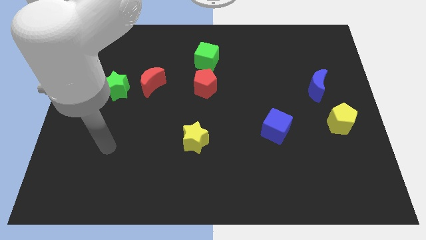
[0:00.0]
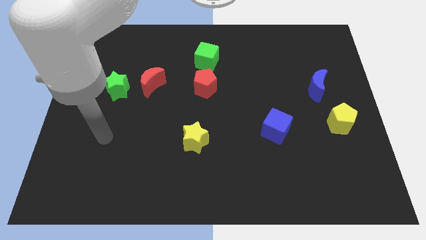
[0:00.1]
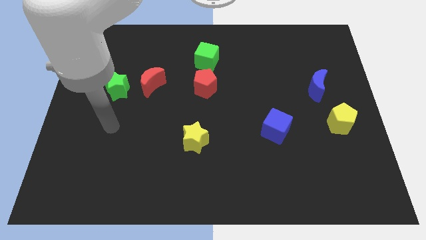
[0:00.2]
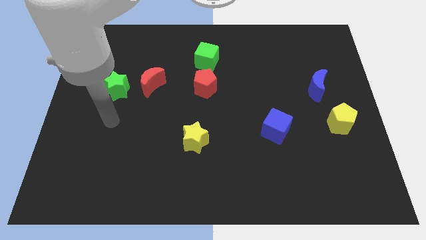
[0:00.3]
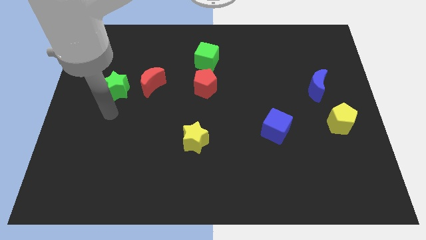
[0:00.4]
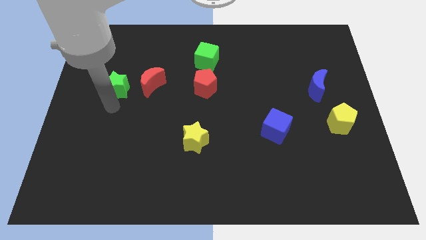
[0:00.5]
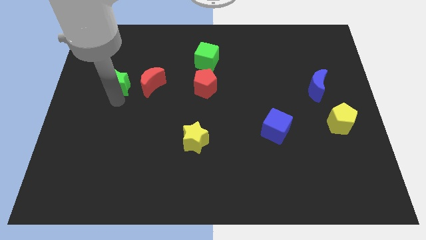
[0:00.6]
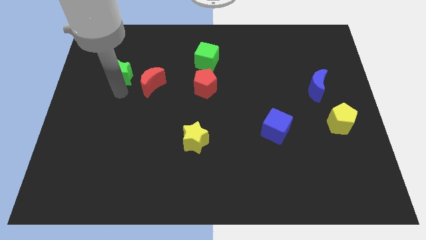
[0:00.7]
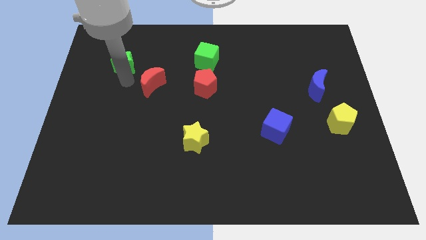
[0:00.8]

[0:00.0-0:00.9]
separate the red moon from the green star

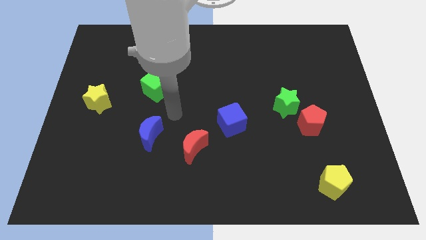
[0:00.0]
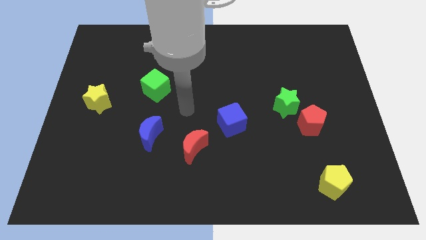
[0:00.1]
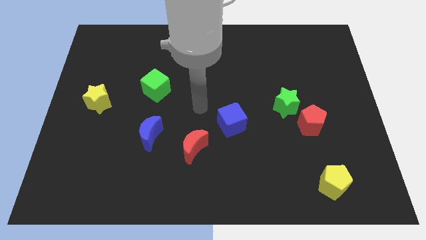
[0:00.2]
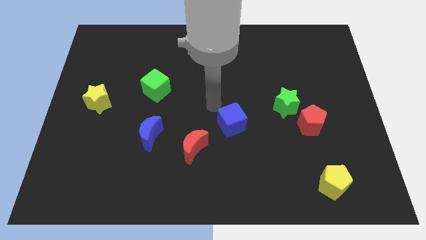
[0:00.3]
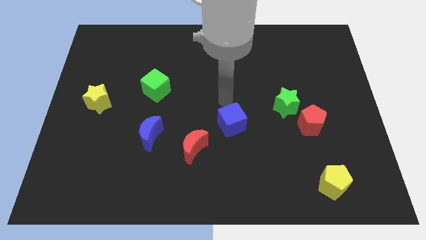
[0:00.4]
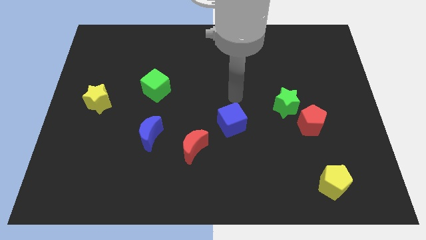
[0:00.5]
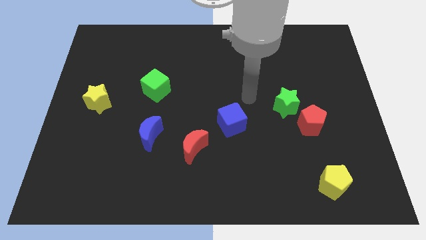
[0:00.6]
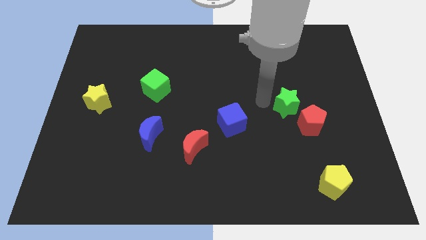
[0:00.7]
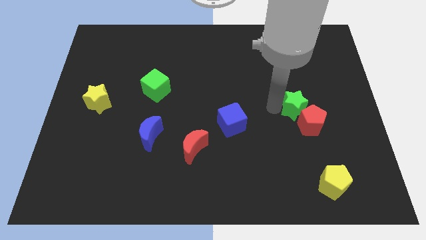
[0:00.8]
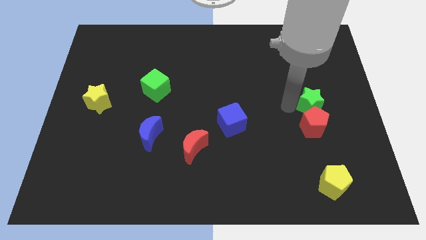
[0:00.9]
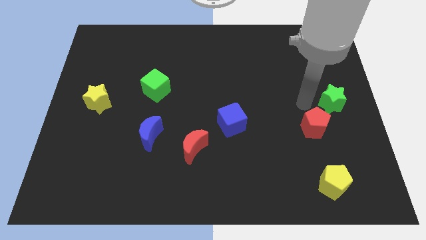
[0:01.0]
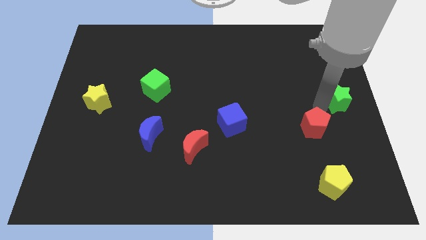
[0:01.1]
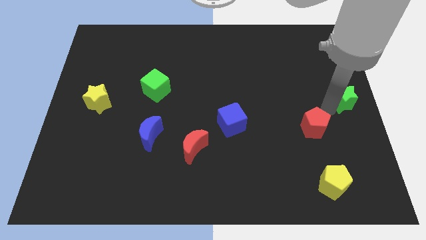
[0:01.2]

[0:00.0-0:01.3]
move the red pentagon away from the green star

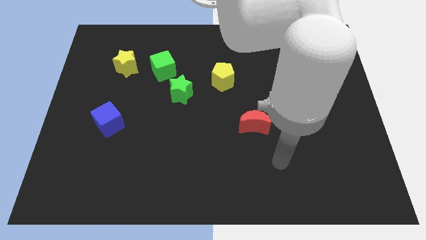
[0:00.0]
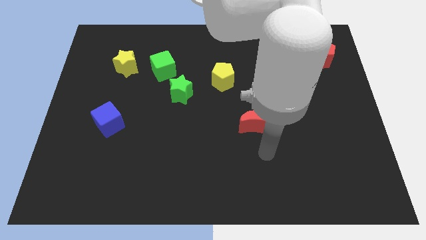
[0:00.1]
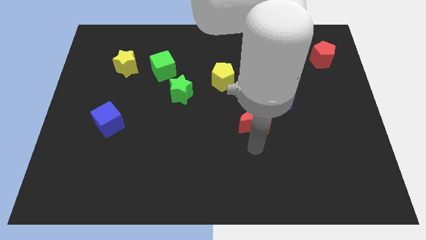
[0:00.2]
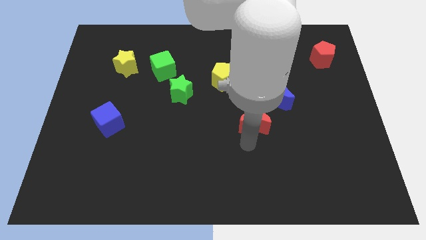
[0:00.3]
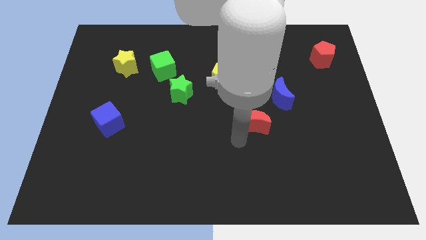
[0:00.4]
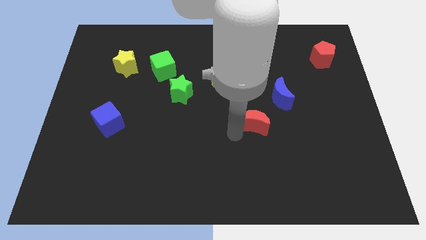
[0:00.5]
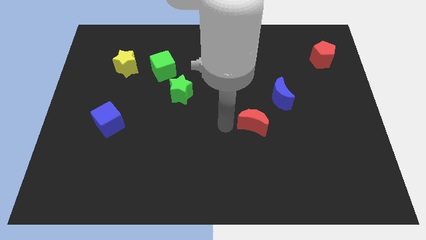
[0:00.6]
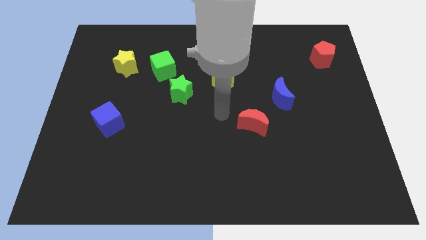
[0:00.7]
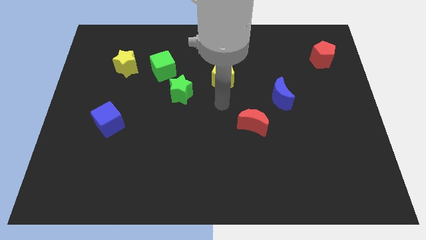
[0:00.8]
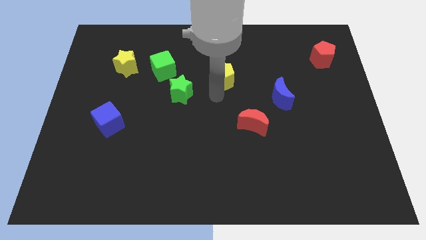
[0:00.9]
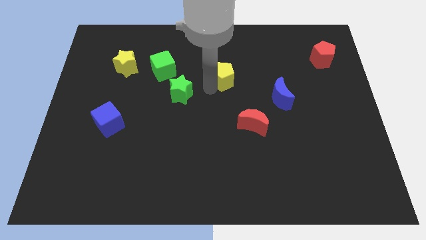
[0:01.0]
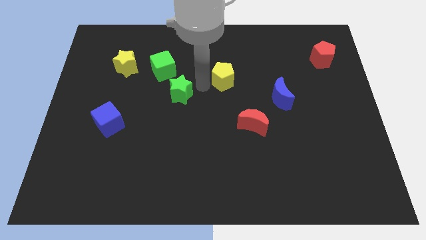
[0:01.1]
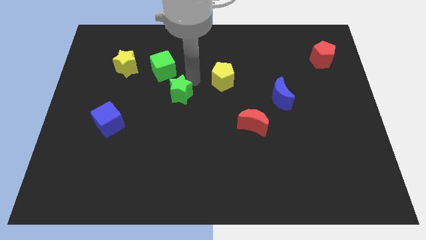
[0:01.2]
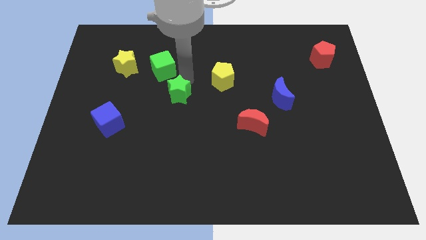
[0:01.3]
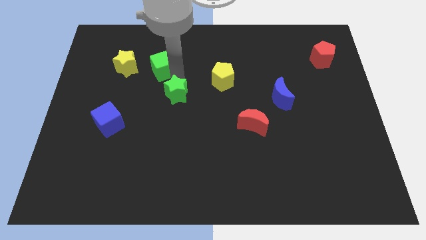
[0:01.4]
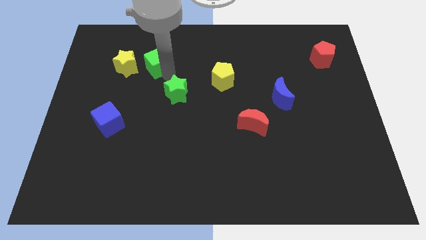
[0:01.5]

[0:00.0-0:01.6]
separate the green star from the green cube

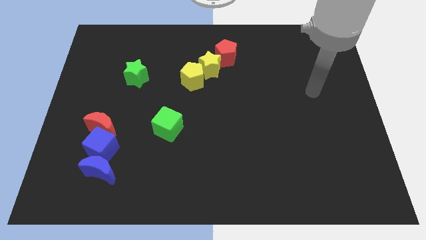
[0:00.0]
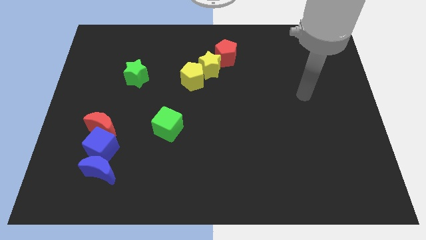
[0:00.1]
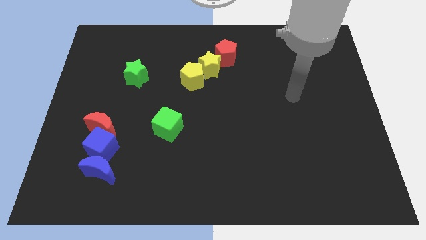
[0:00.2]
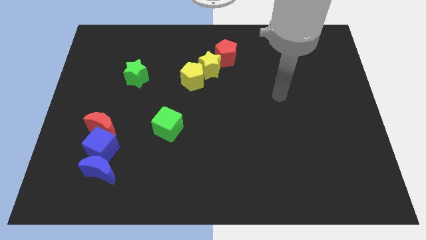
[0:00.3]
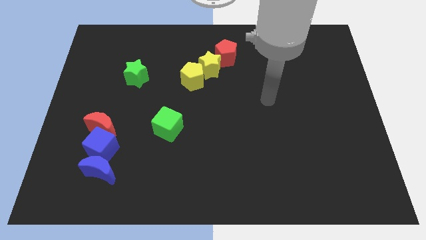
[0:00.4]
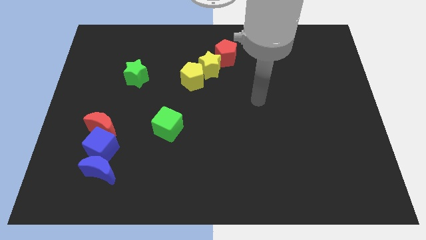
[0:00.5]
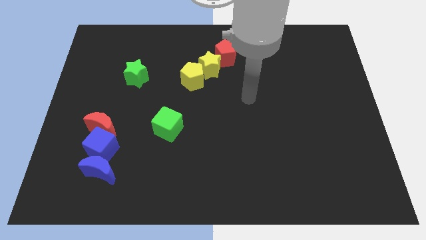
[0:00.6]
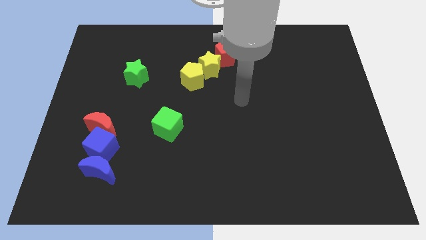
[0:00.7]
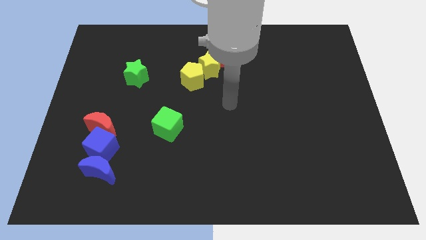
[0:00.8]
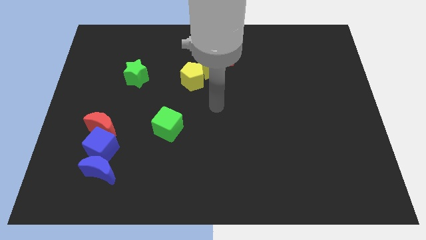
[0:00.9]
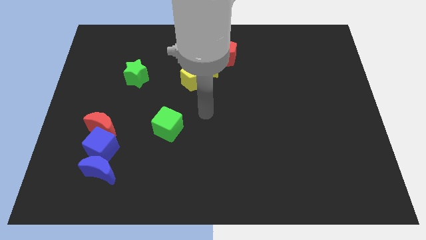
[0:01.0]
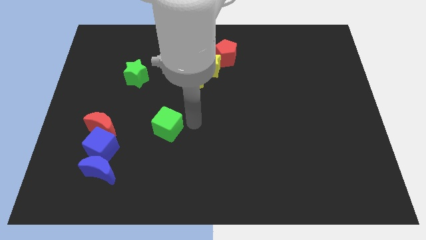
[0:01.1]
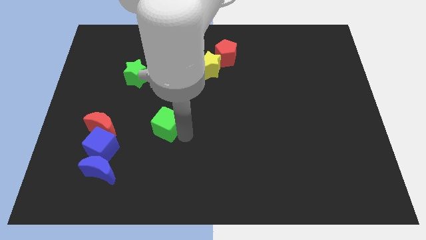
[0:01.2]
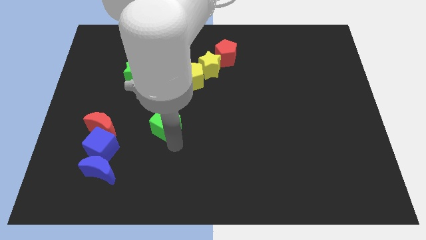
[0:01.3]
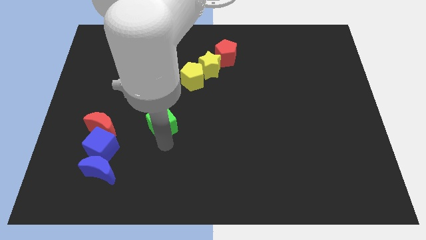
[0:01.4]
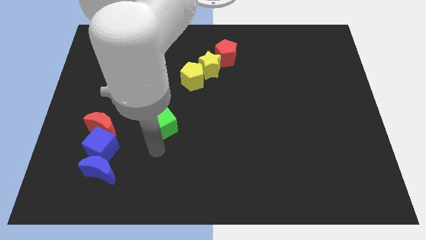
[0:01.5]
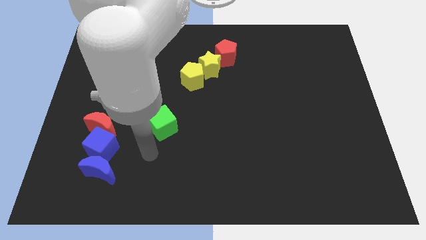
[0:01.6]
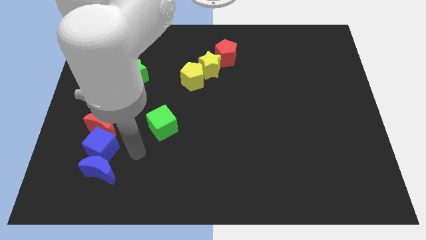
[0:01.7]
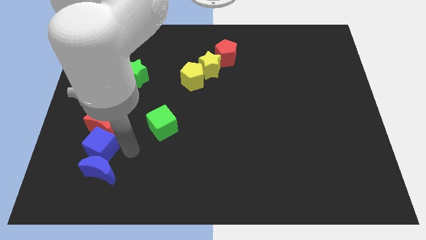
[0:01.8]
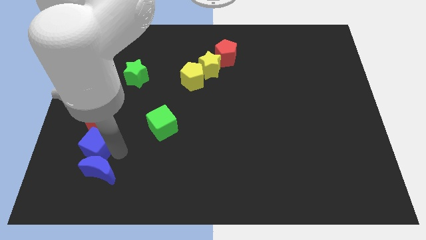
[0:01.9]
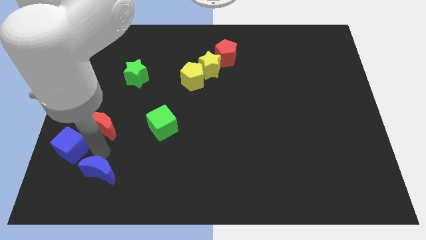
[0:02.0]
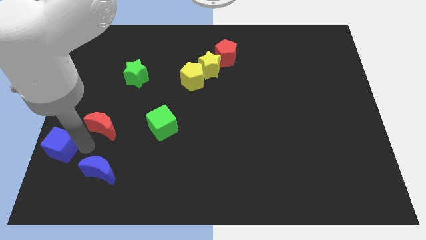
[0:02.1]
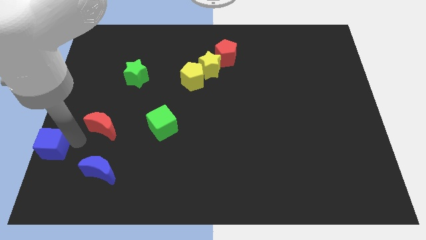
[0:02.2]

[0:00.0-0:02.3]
move the red moon away from the blue cube

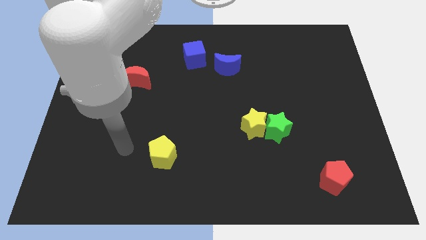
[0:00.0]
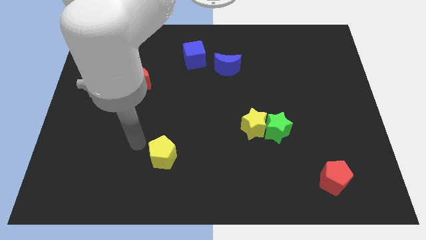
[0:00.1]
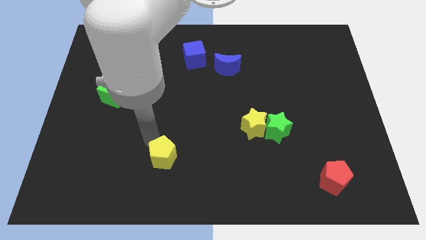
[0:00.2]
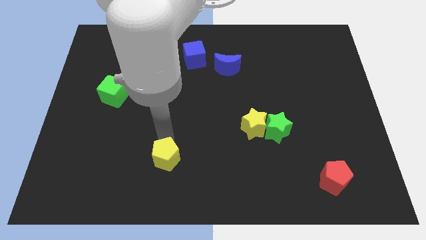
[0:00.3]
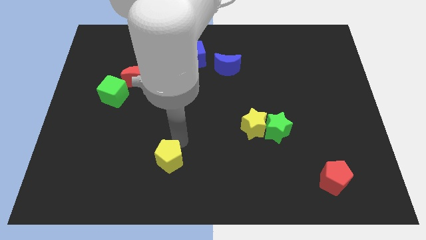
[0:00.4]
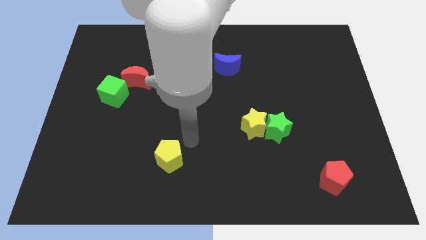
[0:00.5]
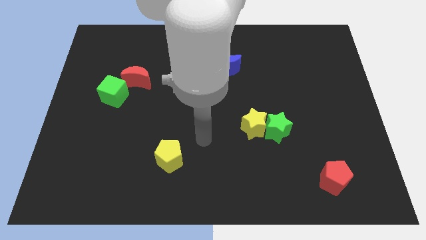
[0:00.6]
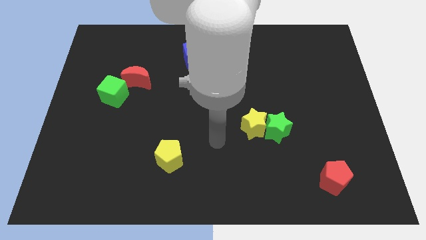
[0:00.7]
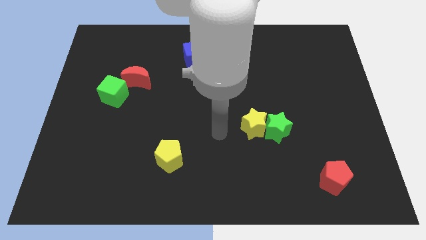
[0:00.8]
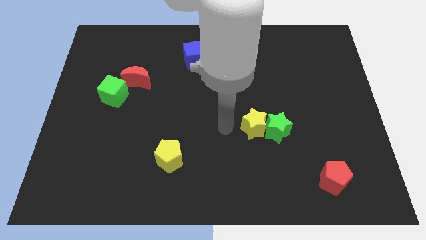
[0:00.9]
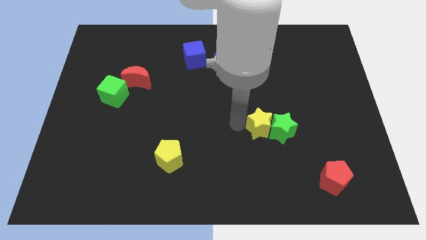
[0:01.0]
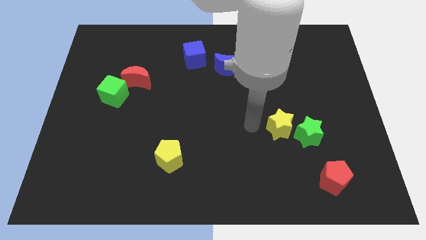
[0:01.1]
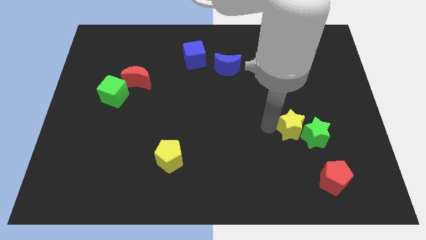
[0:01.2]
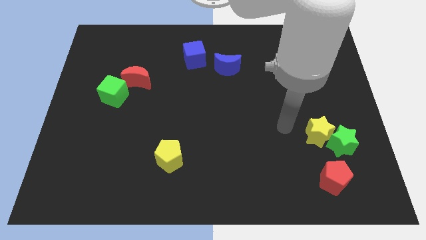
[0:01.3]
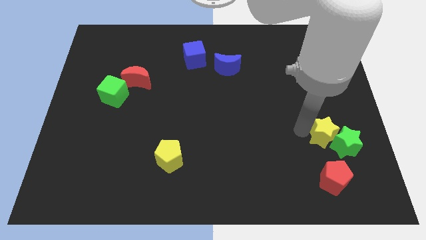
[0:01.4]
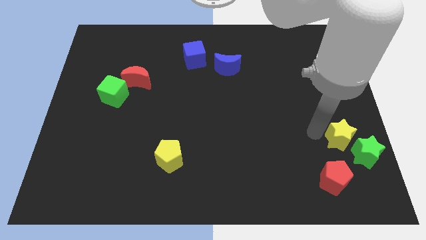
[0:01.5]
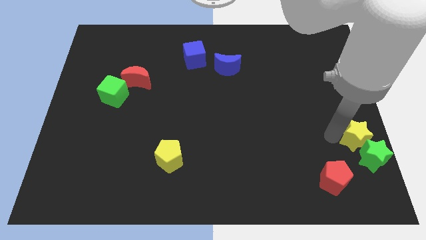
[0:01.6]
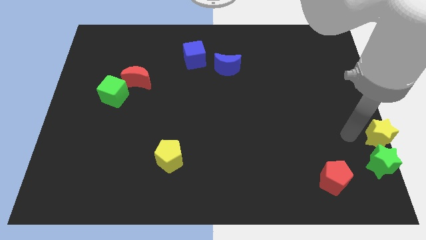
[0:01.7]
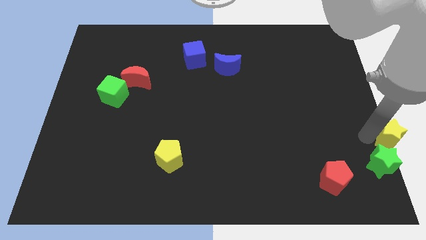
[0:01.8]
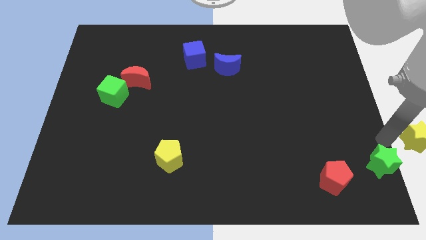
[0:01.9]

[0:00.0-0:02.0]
separate the green star from the yellow star

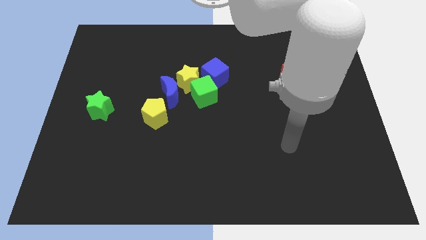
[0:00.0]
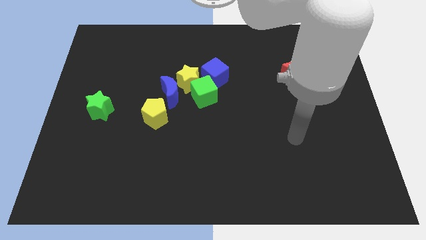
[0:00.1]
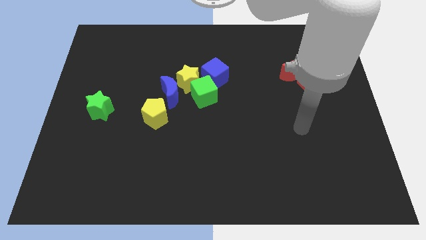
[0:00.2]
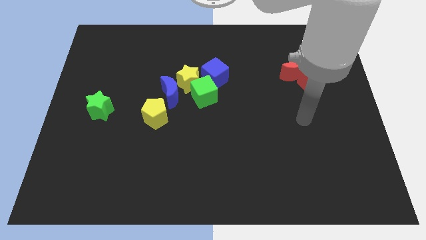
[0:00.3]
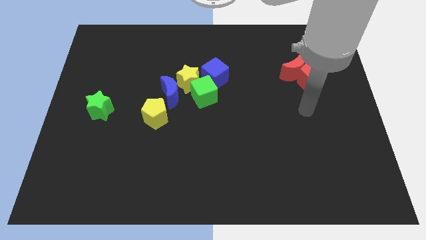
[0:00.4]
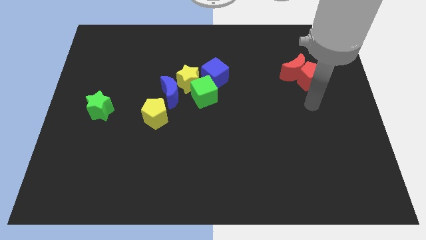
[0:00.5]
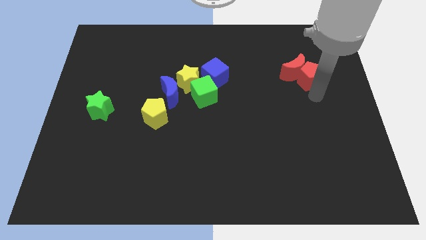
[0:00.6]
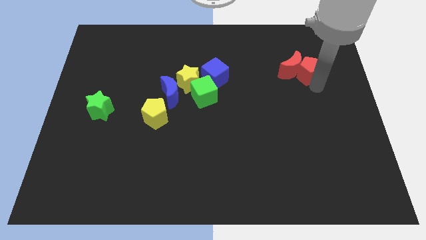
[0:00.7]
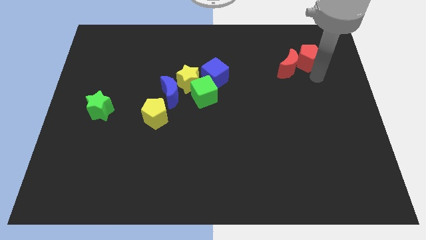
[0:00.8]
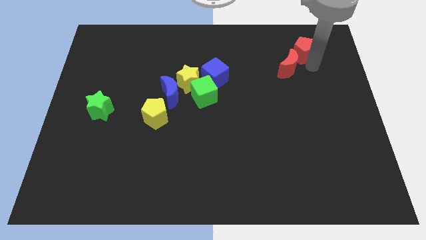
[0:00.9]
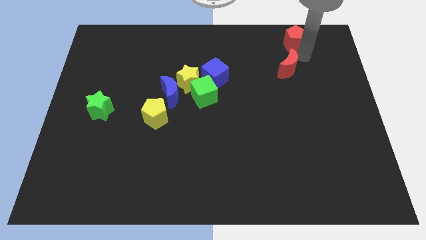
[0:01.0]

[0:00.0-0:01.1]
move the red moon away from the red pentagon
